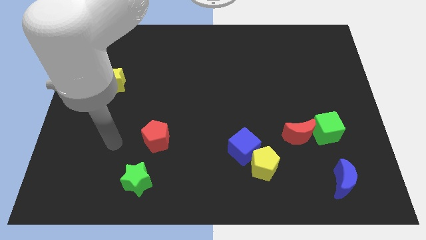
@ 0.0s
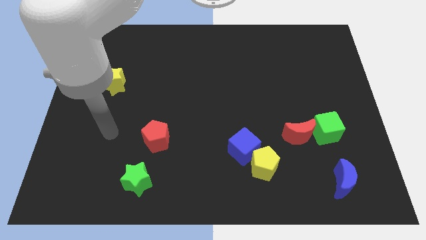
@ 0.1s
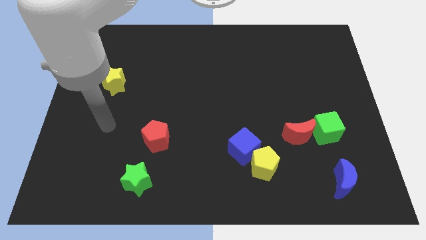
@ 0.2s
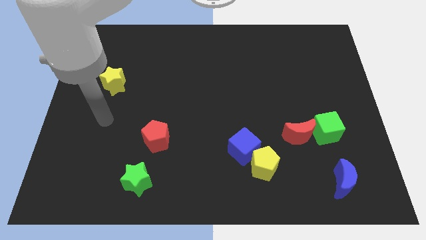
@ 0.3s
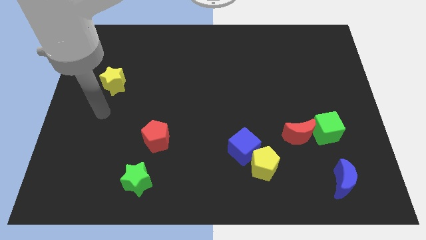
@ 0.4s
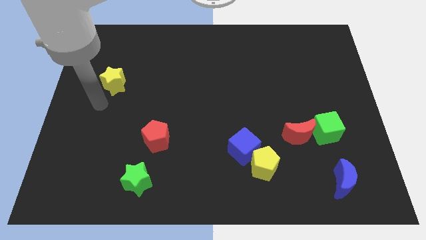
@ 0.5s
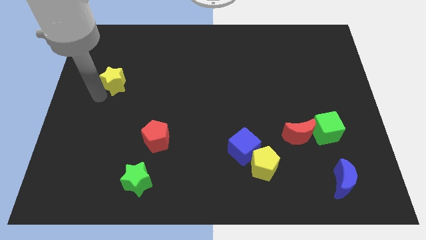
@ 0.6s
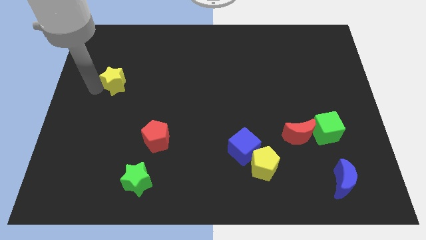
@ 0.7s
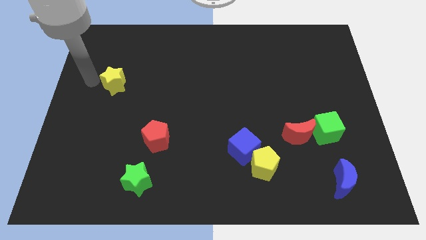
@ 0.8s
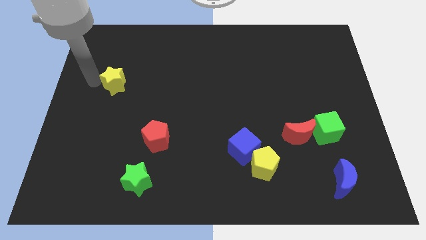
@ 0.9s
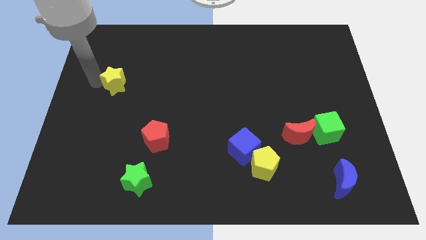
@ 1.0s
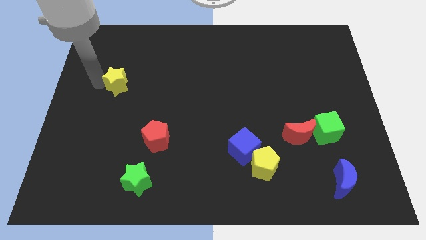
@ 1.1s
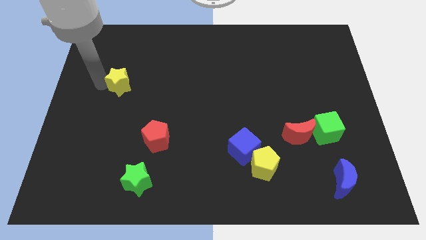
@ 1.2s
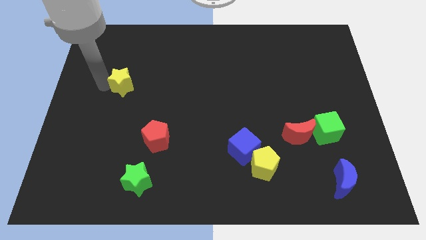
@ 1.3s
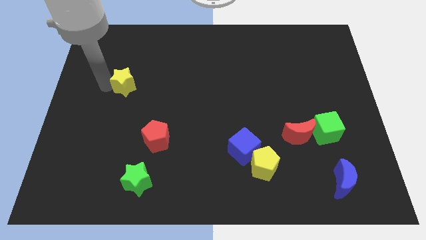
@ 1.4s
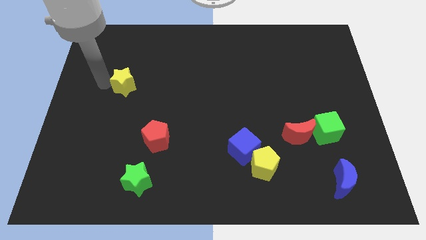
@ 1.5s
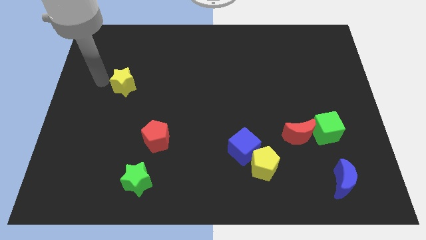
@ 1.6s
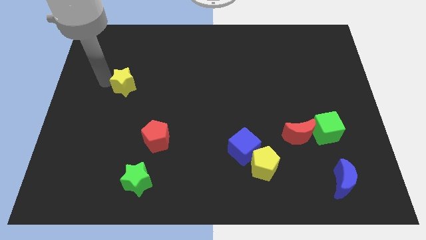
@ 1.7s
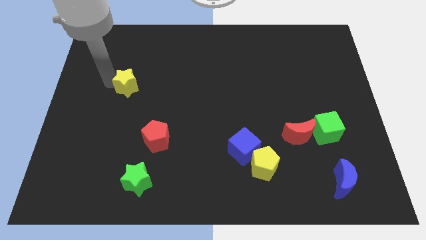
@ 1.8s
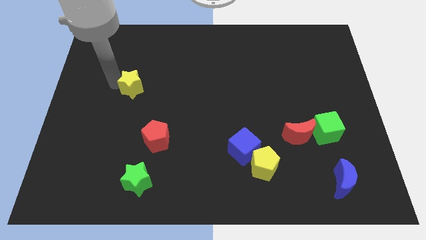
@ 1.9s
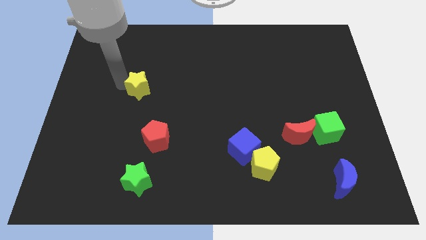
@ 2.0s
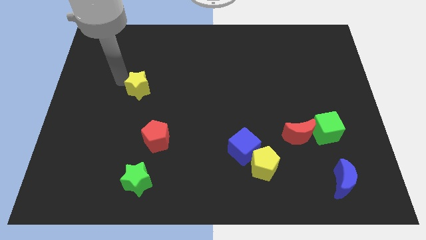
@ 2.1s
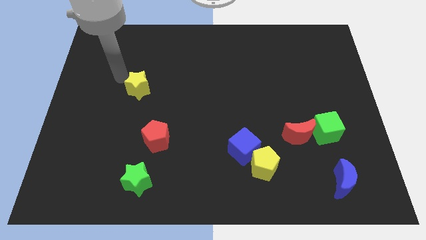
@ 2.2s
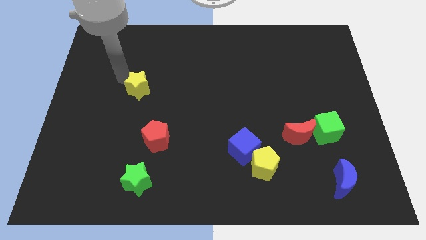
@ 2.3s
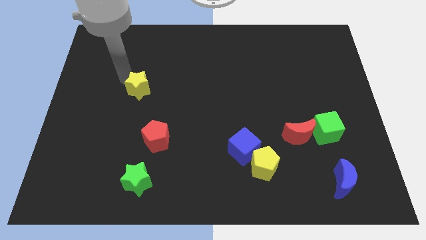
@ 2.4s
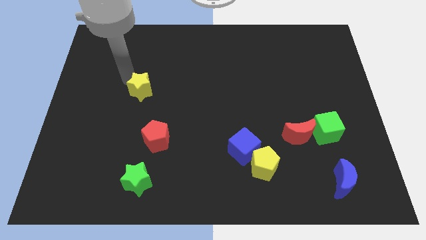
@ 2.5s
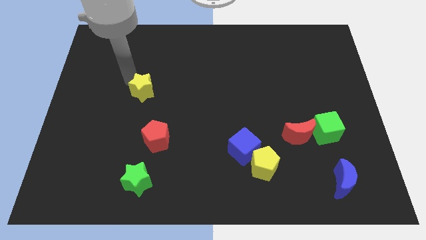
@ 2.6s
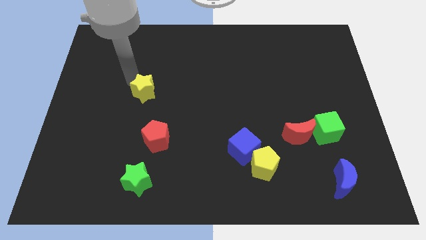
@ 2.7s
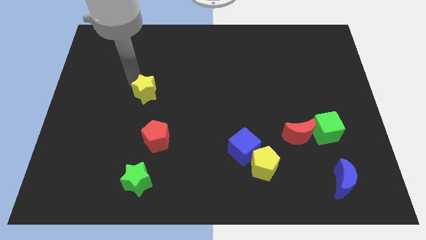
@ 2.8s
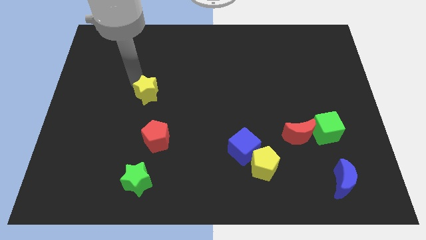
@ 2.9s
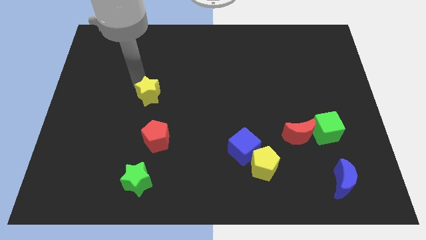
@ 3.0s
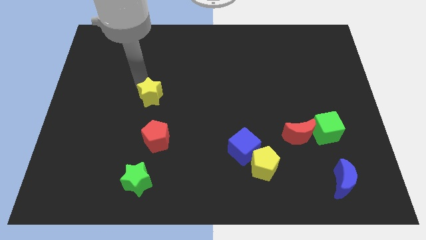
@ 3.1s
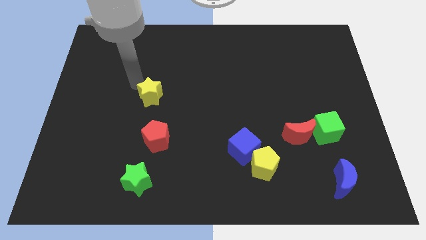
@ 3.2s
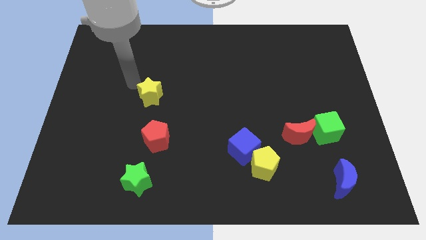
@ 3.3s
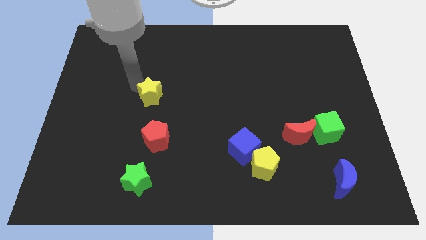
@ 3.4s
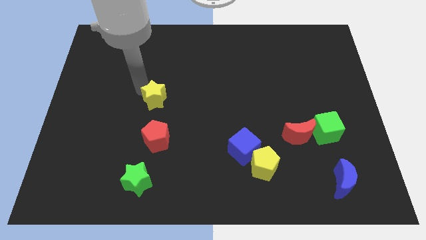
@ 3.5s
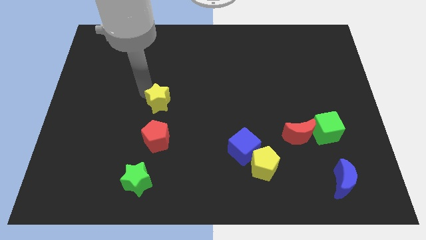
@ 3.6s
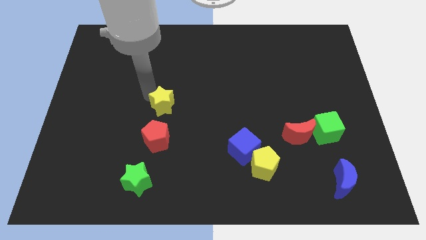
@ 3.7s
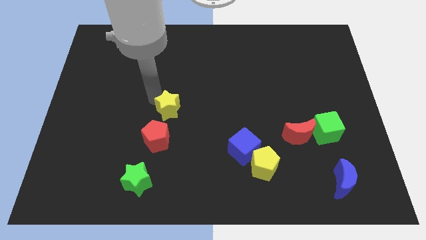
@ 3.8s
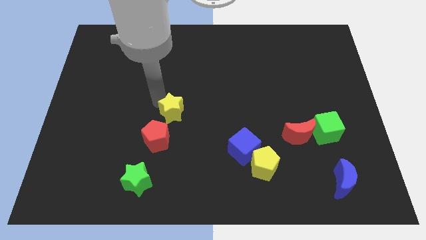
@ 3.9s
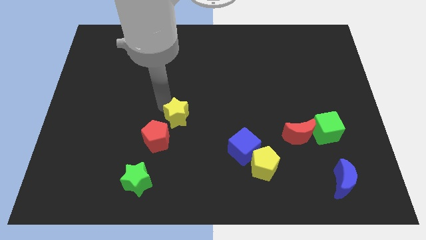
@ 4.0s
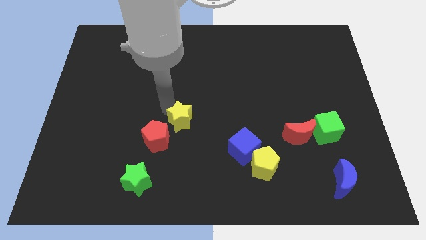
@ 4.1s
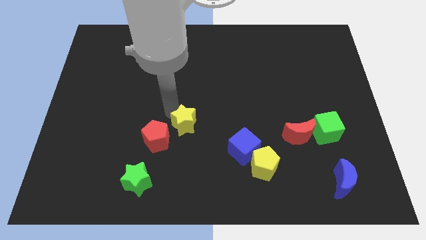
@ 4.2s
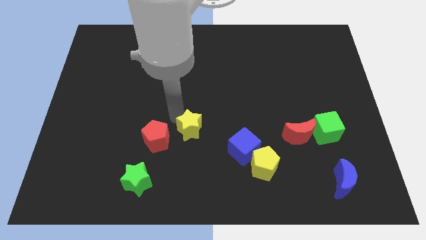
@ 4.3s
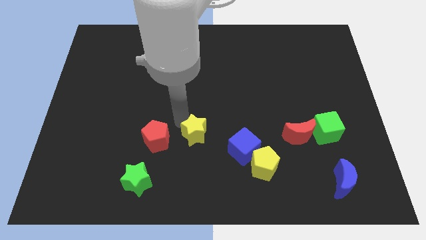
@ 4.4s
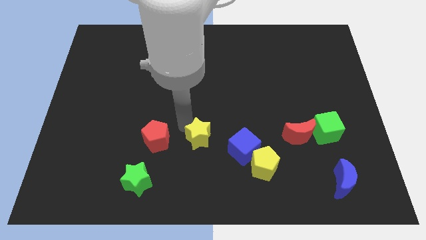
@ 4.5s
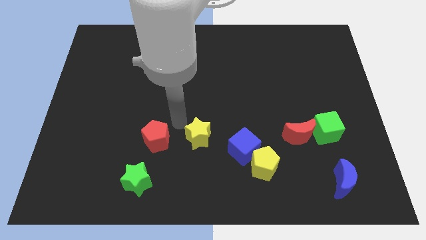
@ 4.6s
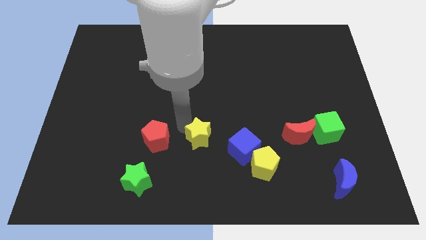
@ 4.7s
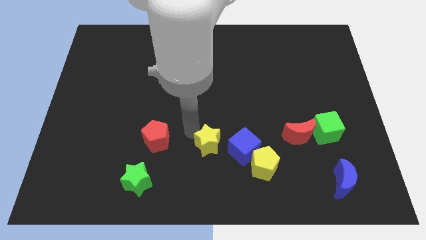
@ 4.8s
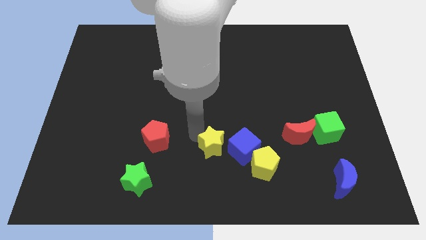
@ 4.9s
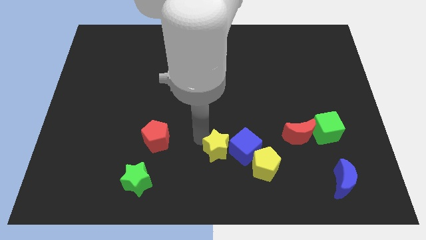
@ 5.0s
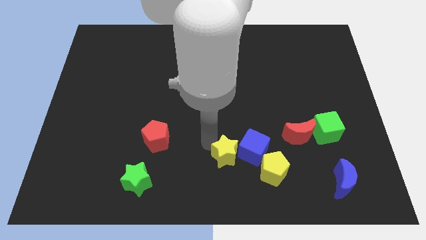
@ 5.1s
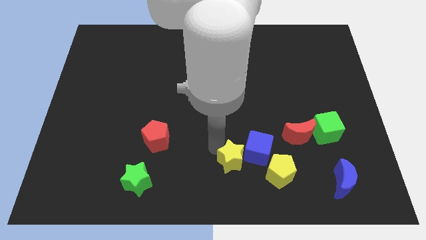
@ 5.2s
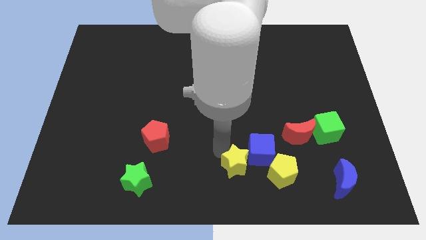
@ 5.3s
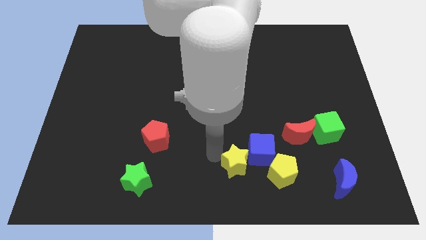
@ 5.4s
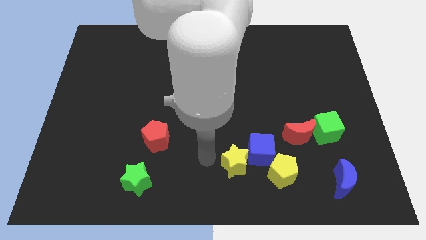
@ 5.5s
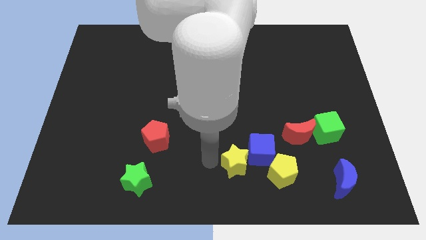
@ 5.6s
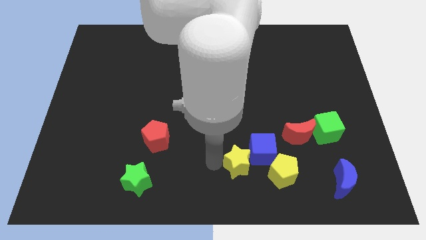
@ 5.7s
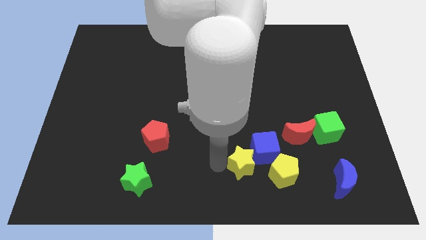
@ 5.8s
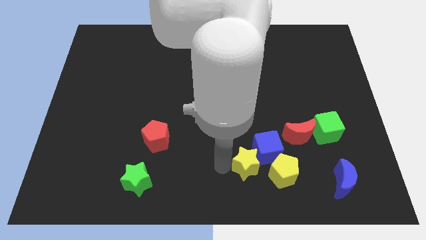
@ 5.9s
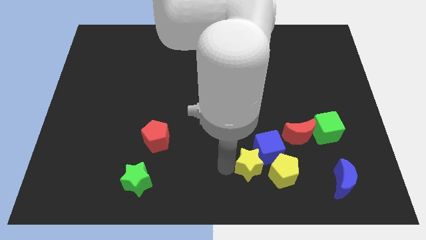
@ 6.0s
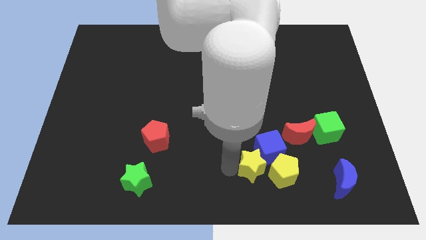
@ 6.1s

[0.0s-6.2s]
push the yellow star close to the yellow pentagon

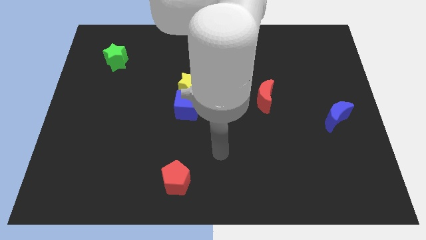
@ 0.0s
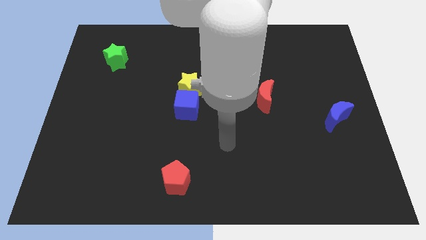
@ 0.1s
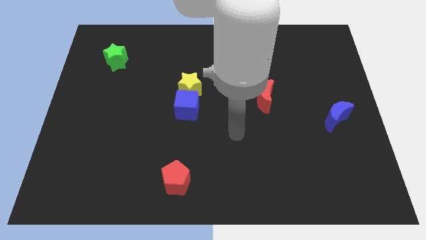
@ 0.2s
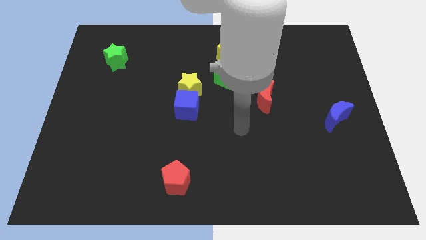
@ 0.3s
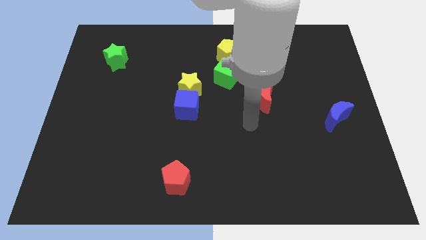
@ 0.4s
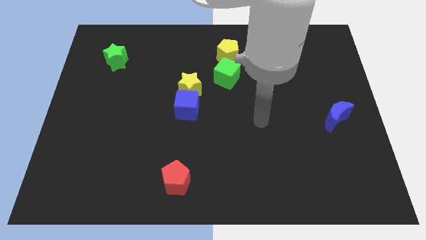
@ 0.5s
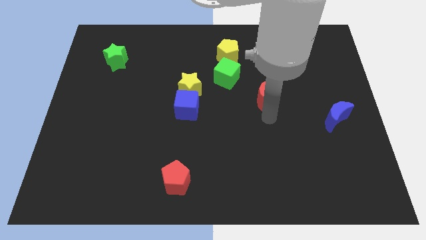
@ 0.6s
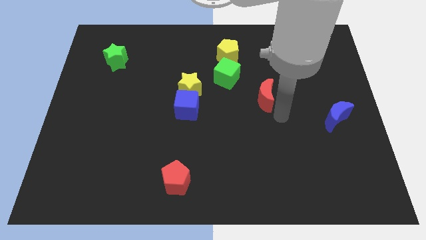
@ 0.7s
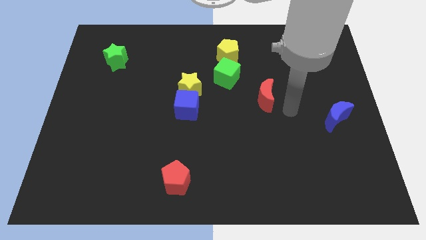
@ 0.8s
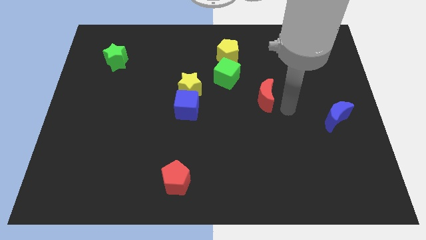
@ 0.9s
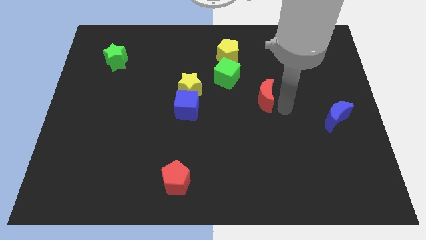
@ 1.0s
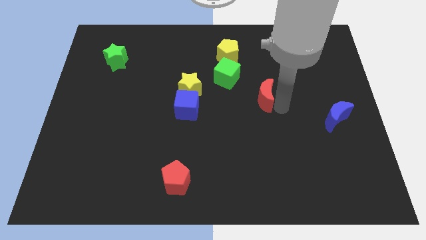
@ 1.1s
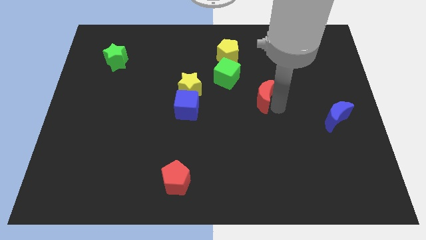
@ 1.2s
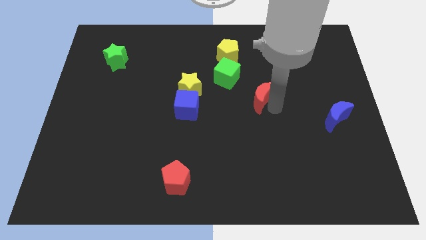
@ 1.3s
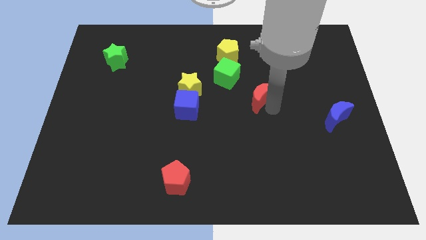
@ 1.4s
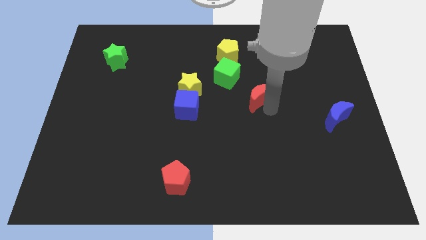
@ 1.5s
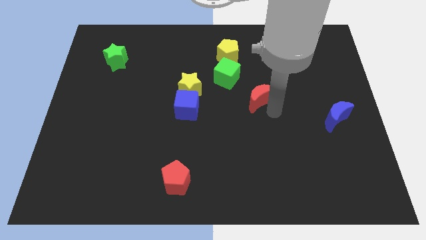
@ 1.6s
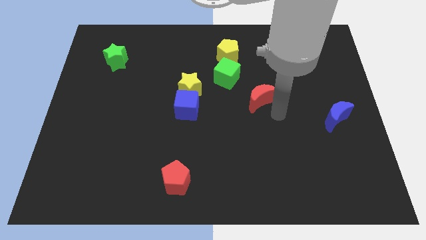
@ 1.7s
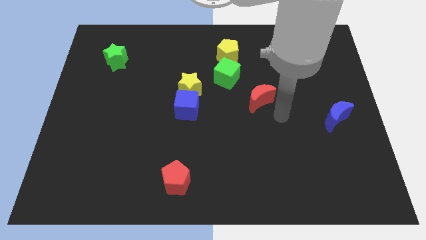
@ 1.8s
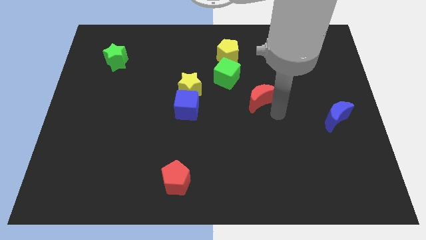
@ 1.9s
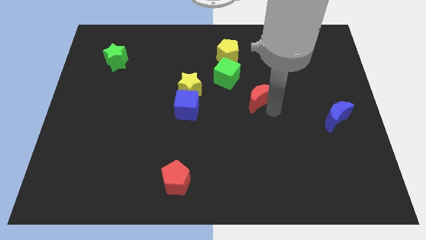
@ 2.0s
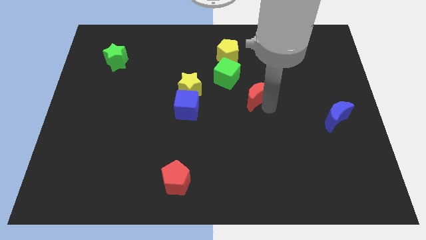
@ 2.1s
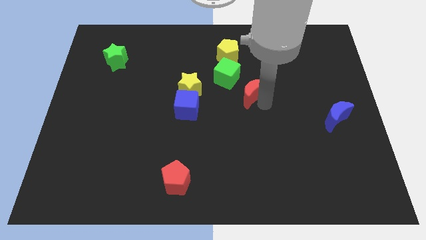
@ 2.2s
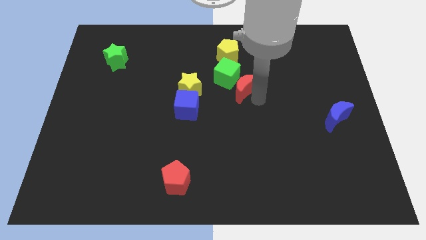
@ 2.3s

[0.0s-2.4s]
slide the red moon to the green cube
